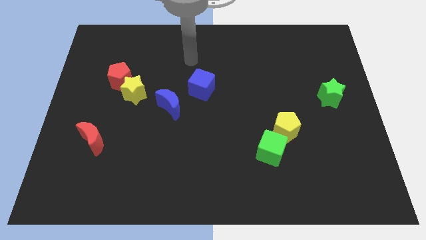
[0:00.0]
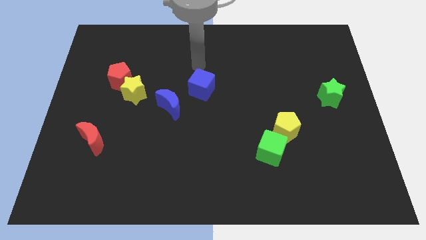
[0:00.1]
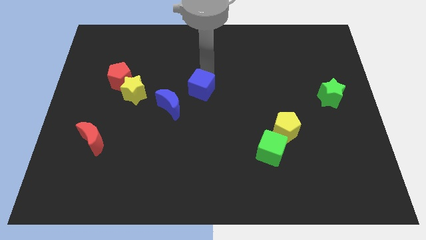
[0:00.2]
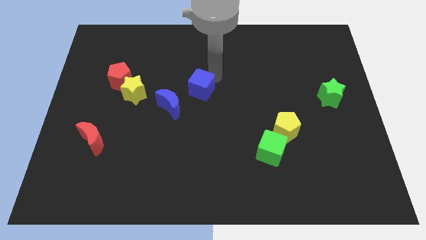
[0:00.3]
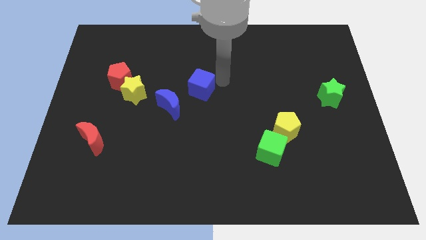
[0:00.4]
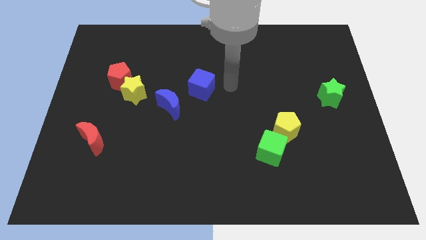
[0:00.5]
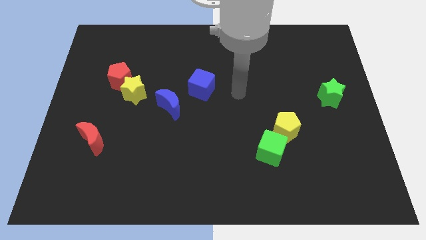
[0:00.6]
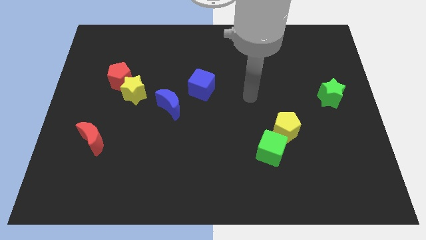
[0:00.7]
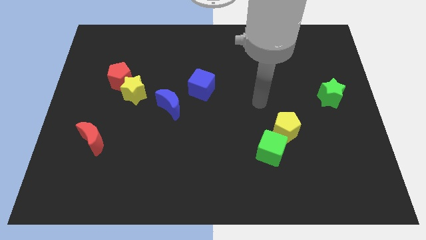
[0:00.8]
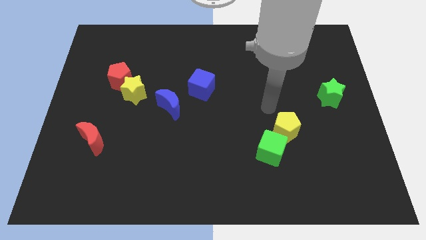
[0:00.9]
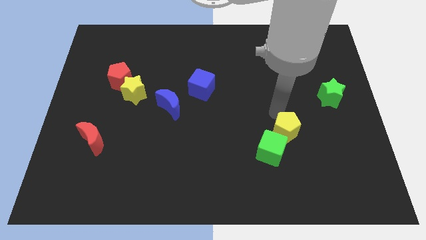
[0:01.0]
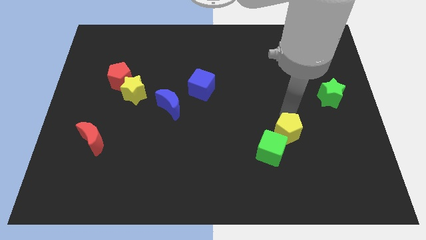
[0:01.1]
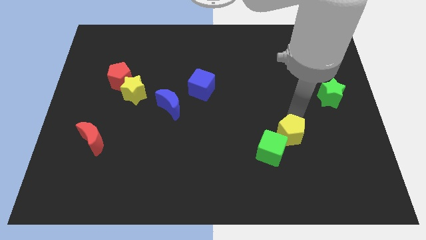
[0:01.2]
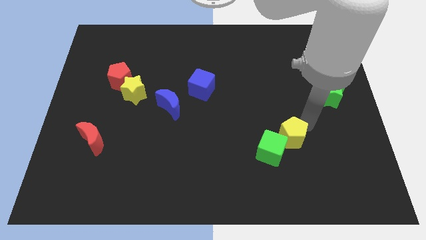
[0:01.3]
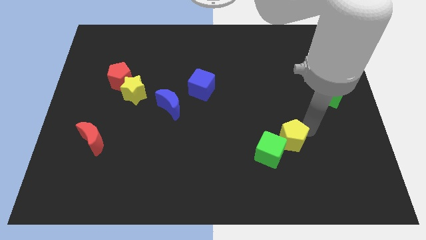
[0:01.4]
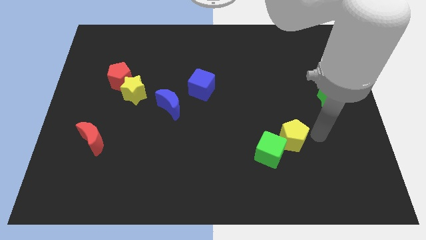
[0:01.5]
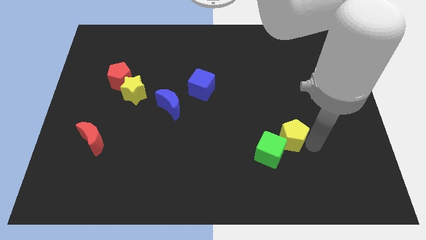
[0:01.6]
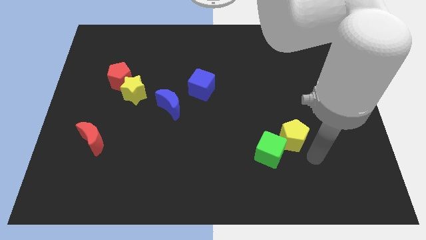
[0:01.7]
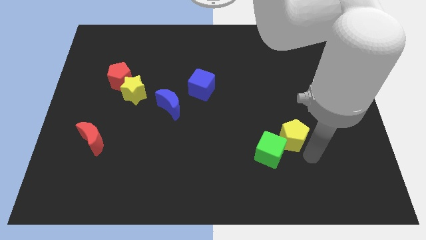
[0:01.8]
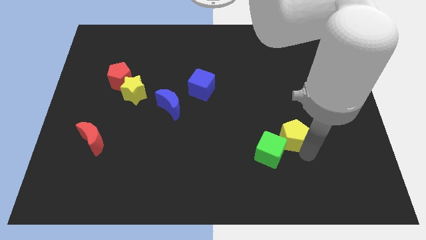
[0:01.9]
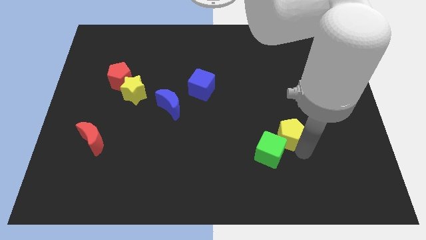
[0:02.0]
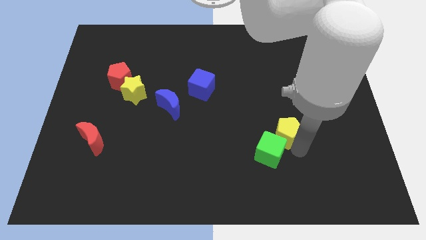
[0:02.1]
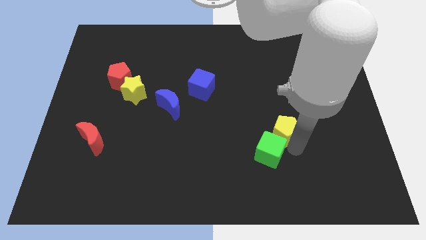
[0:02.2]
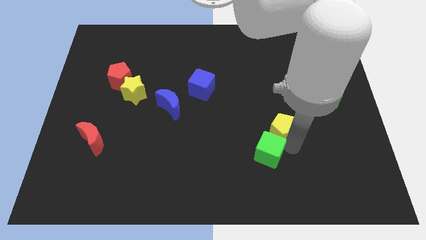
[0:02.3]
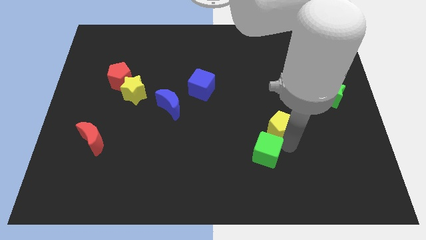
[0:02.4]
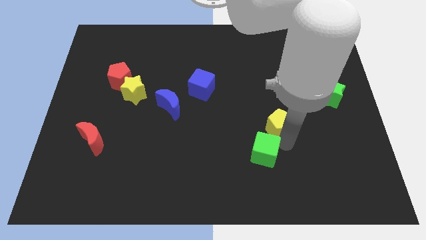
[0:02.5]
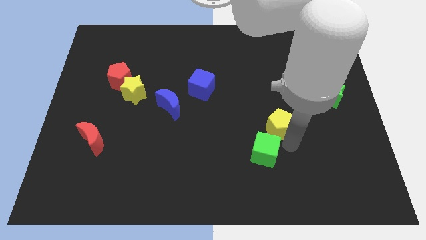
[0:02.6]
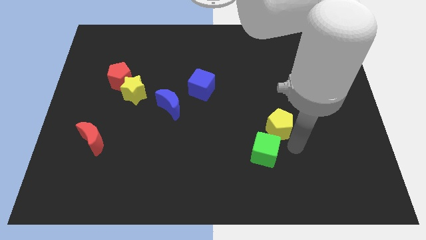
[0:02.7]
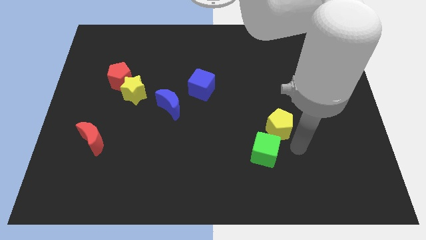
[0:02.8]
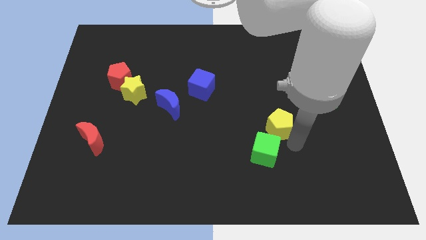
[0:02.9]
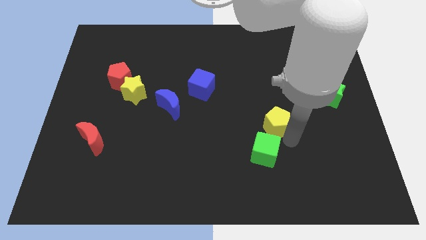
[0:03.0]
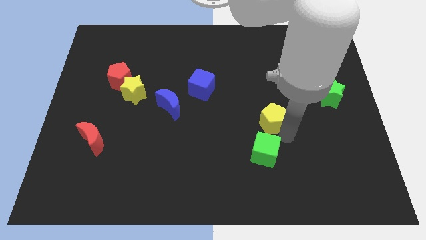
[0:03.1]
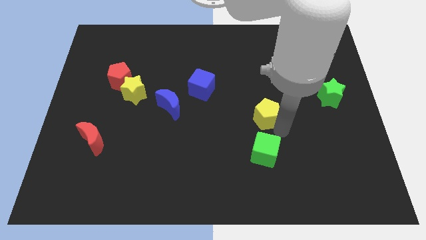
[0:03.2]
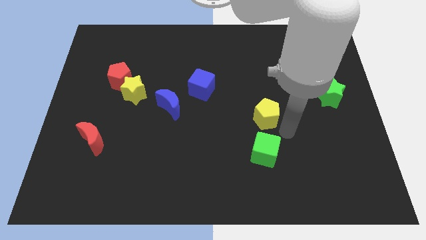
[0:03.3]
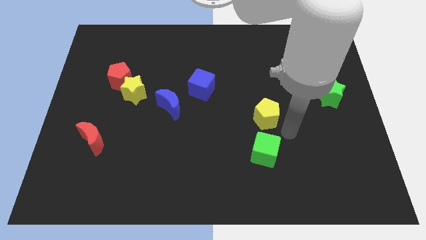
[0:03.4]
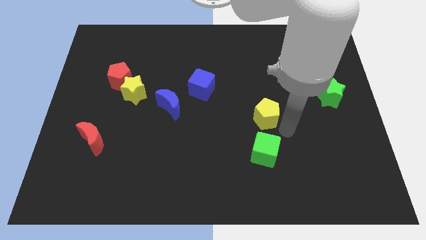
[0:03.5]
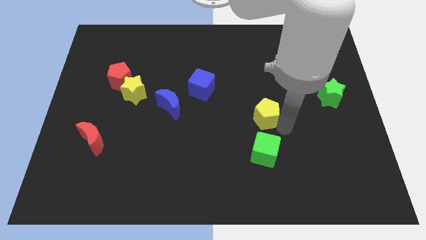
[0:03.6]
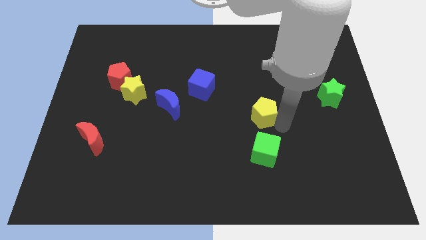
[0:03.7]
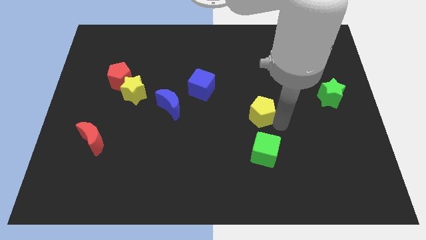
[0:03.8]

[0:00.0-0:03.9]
slide the yellow pentagon diagonally upwards and left a little bit

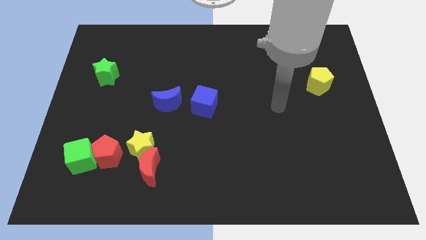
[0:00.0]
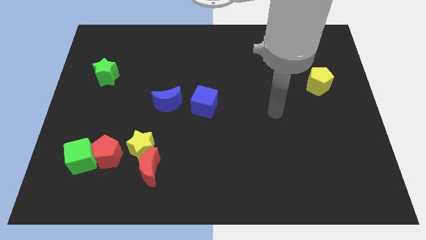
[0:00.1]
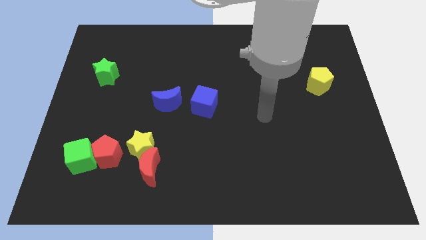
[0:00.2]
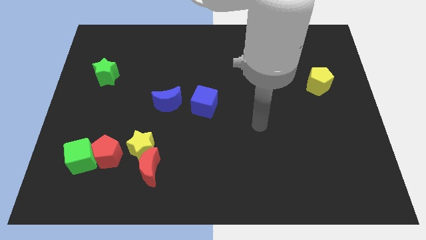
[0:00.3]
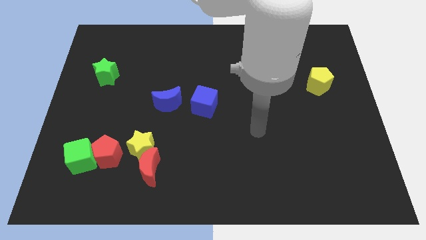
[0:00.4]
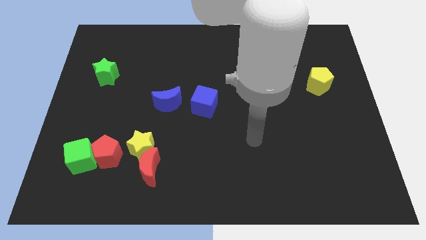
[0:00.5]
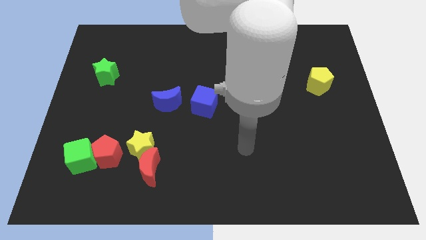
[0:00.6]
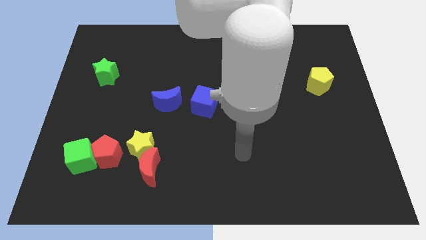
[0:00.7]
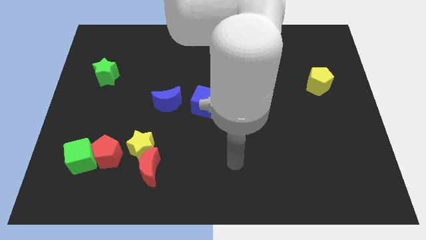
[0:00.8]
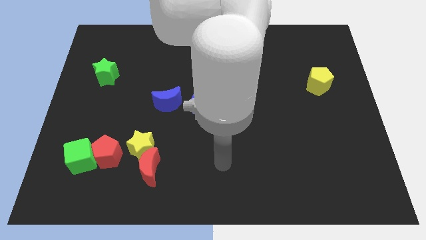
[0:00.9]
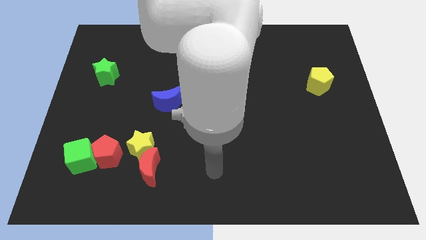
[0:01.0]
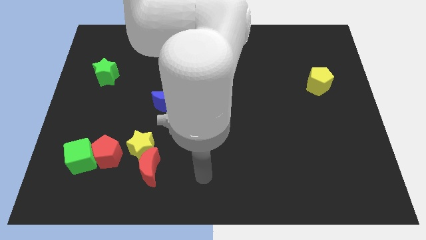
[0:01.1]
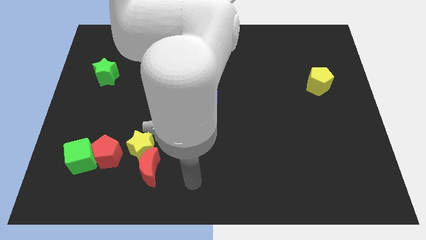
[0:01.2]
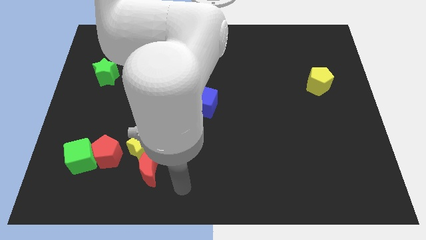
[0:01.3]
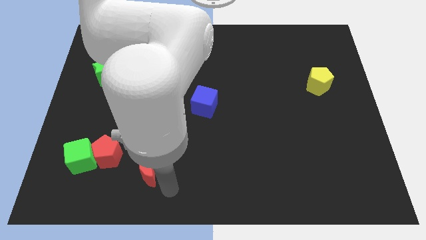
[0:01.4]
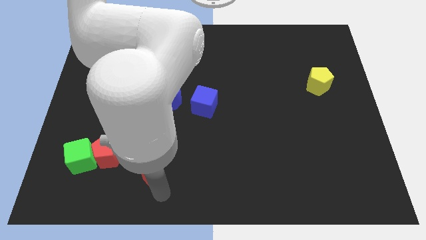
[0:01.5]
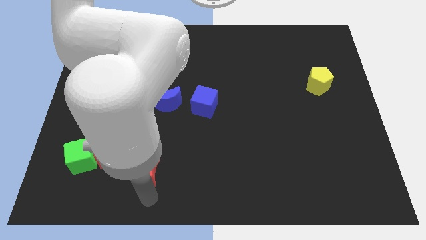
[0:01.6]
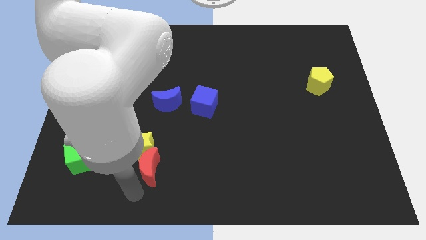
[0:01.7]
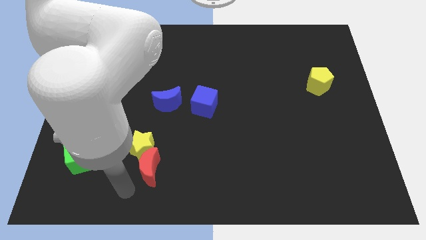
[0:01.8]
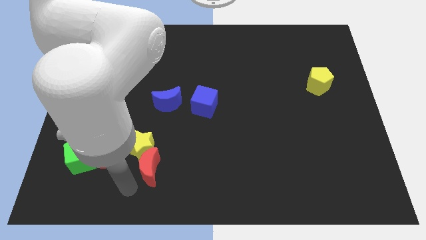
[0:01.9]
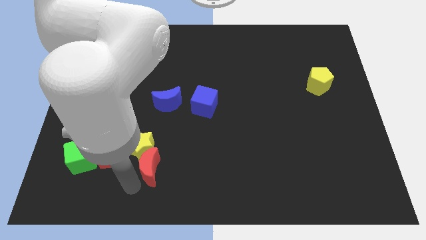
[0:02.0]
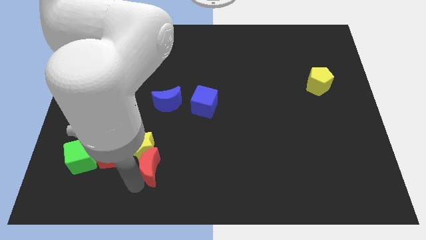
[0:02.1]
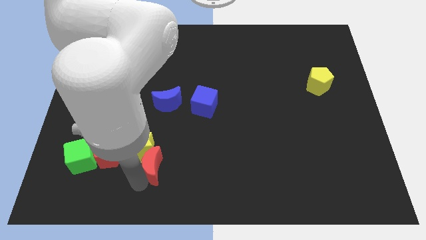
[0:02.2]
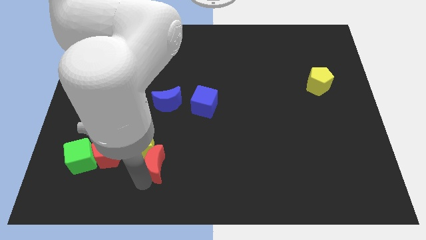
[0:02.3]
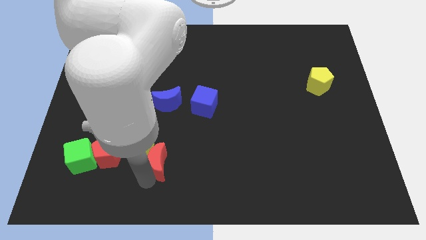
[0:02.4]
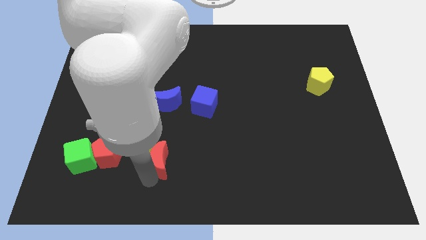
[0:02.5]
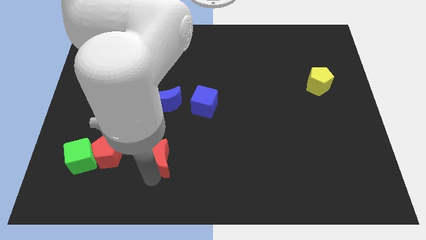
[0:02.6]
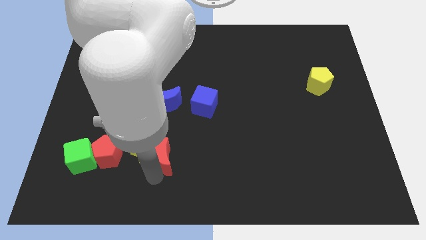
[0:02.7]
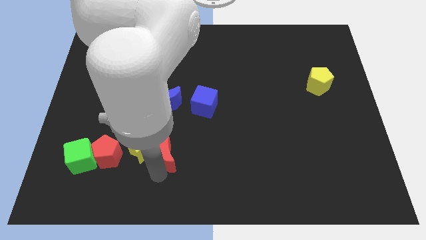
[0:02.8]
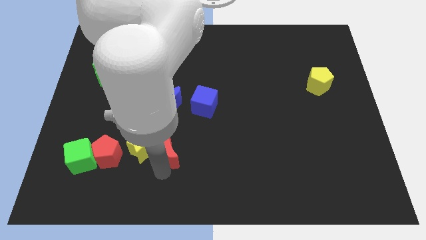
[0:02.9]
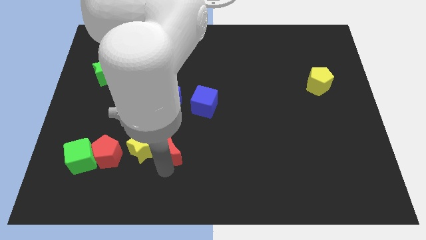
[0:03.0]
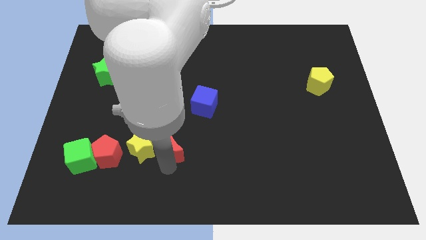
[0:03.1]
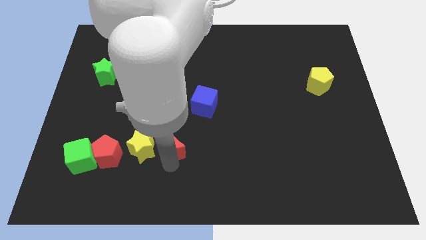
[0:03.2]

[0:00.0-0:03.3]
slightly slide the red moon up and to the right diagonally

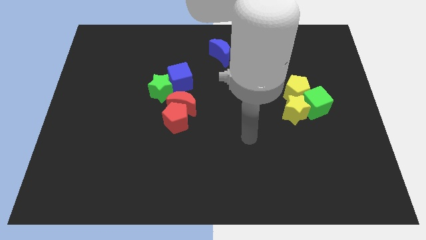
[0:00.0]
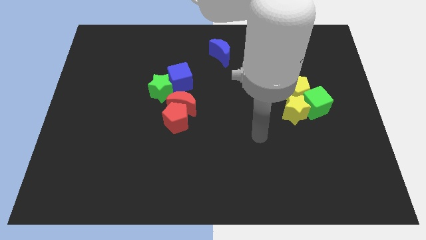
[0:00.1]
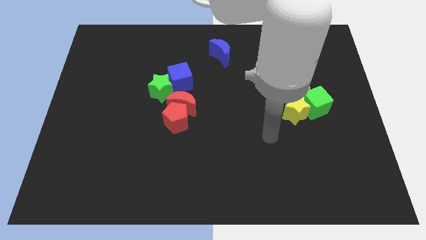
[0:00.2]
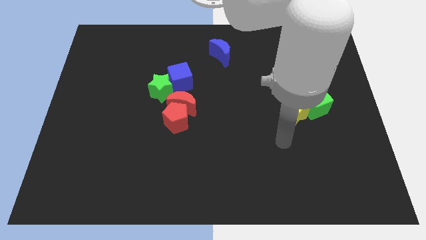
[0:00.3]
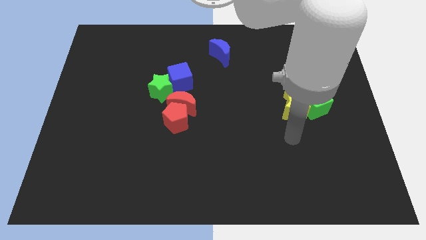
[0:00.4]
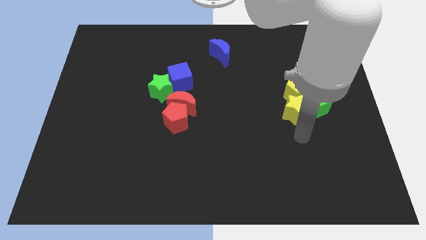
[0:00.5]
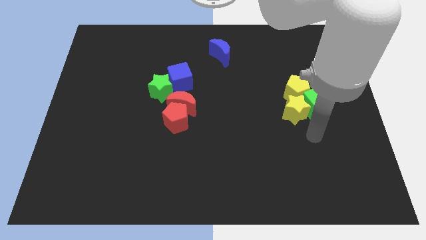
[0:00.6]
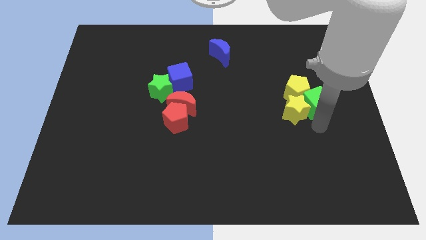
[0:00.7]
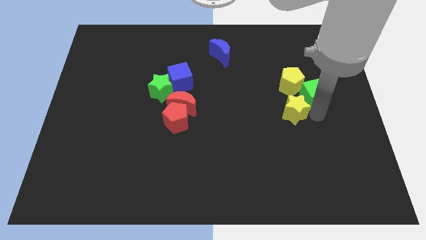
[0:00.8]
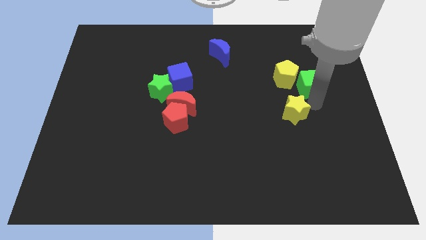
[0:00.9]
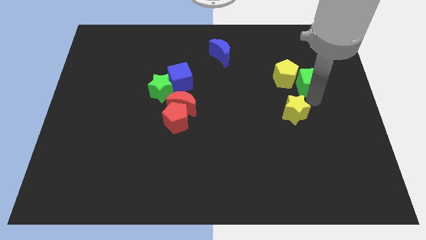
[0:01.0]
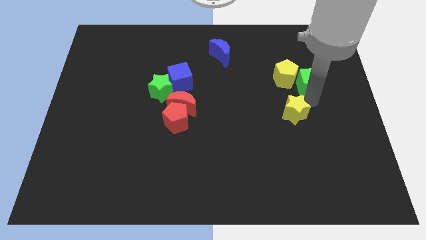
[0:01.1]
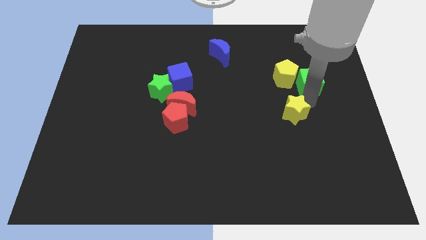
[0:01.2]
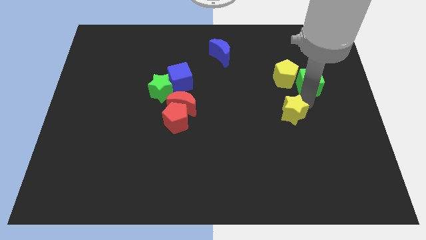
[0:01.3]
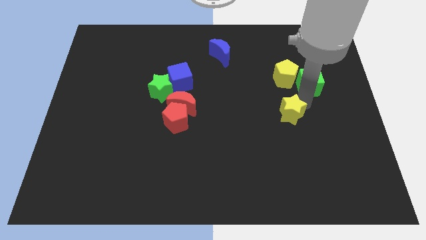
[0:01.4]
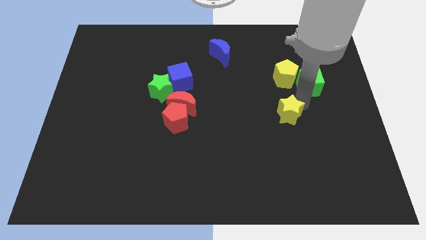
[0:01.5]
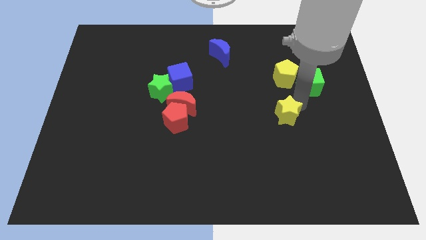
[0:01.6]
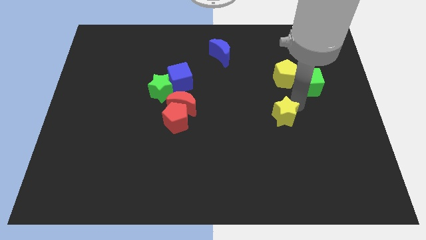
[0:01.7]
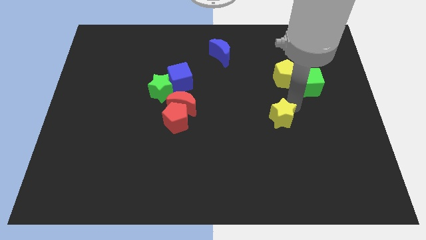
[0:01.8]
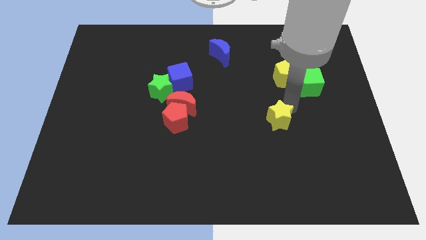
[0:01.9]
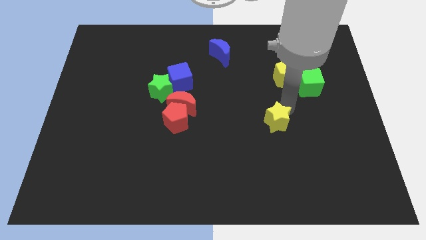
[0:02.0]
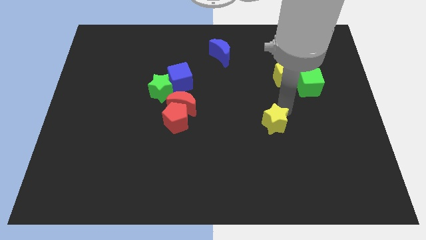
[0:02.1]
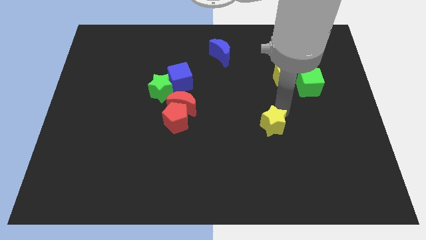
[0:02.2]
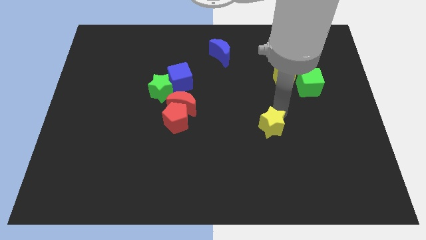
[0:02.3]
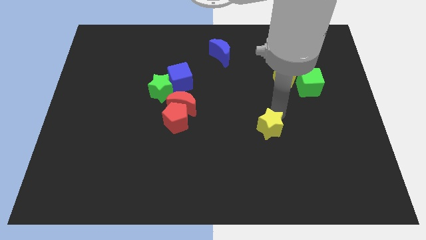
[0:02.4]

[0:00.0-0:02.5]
push the yellow star somewhat down and then left
